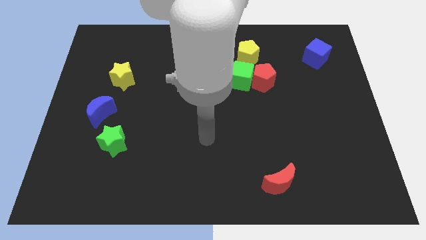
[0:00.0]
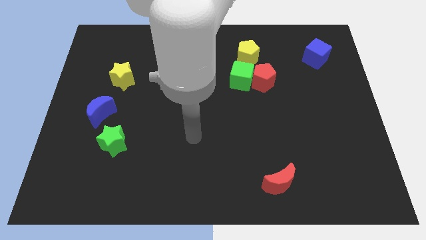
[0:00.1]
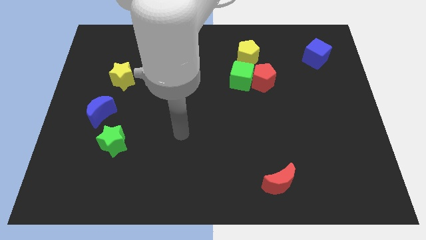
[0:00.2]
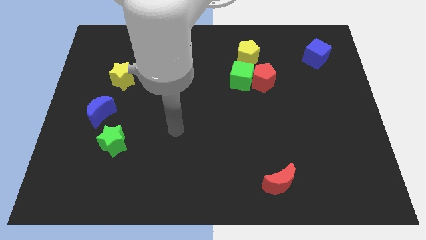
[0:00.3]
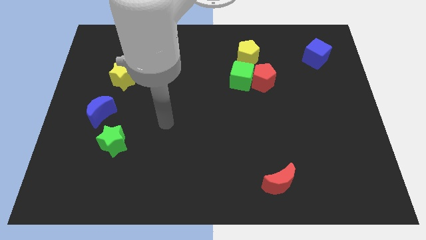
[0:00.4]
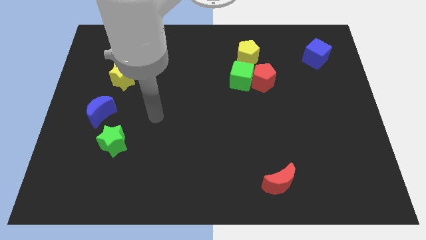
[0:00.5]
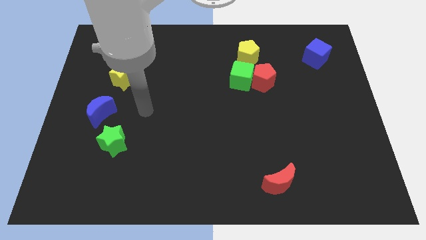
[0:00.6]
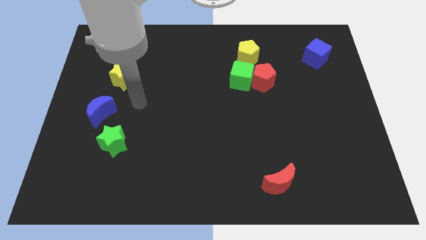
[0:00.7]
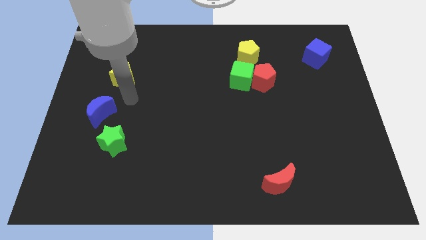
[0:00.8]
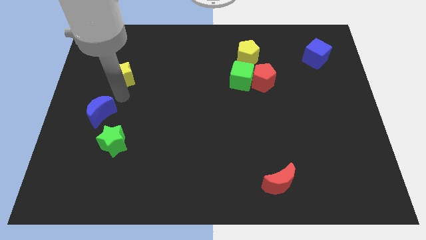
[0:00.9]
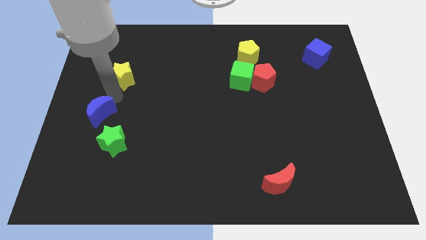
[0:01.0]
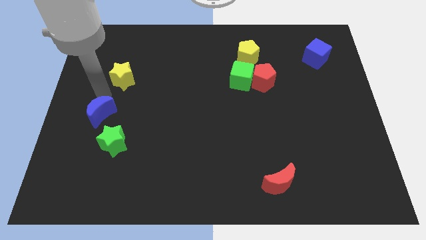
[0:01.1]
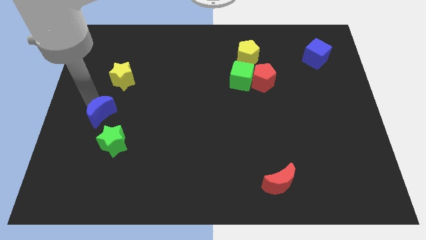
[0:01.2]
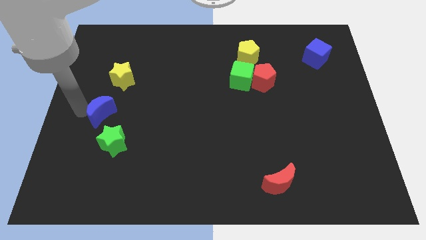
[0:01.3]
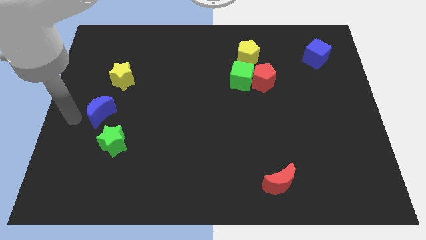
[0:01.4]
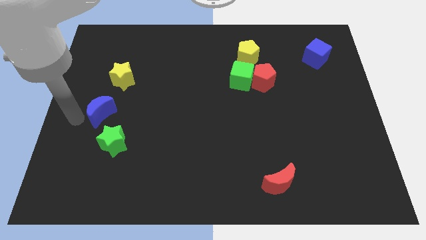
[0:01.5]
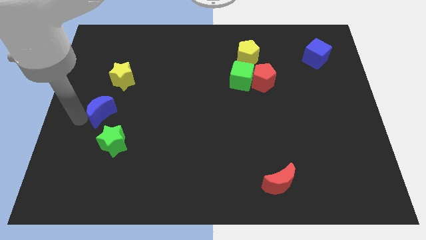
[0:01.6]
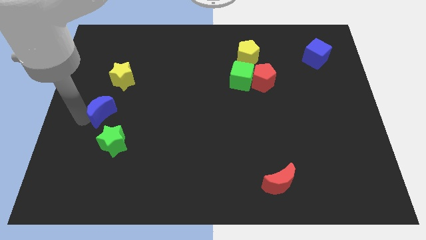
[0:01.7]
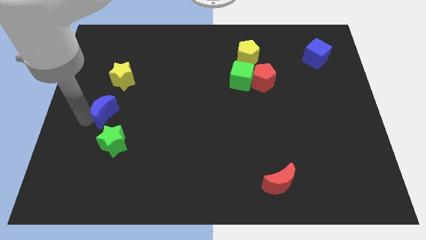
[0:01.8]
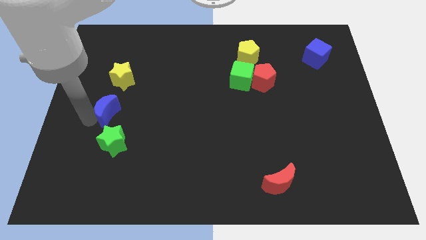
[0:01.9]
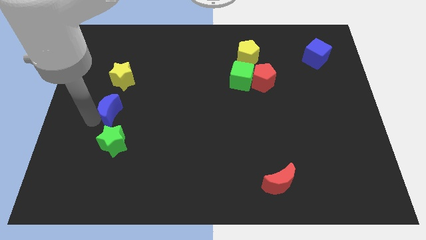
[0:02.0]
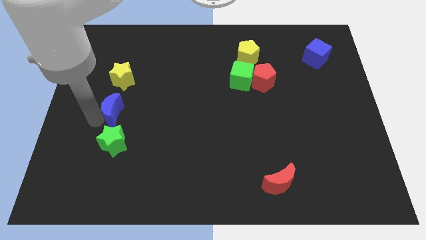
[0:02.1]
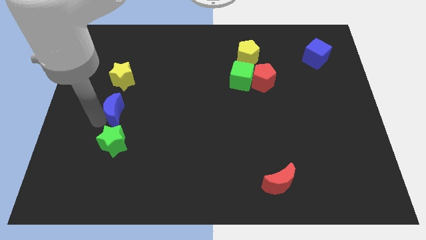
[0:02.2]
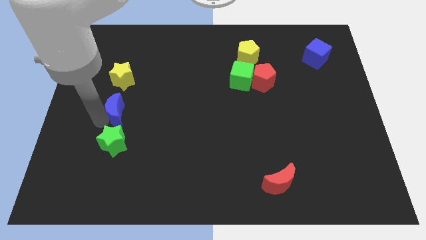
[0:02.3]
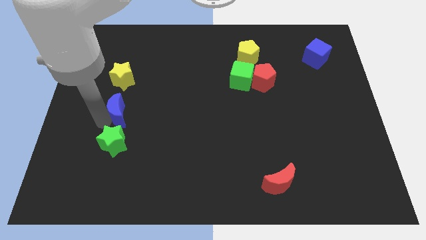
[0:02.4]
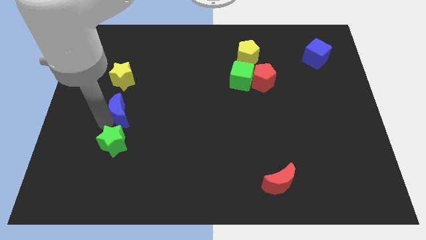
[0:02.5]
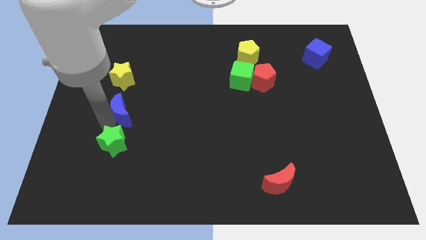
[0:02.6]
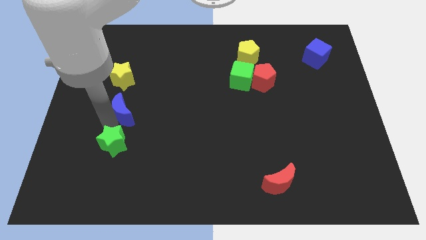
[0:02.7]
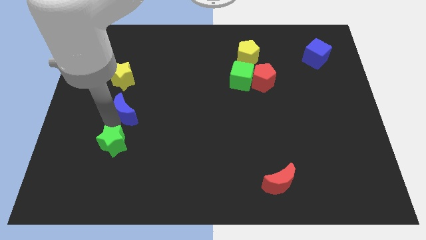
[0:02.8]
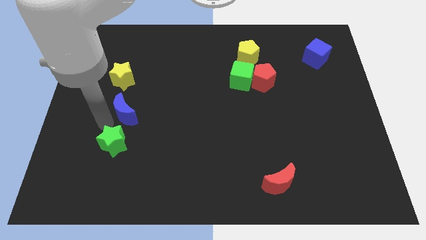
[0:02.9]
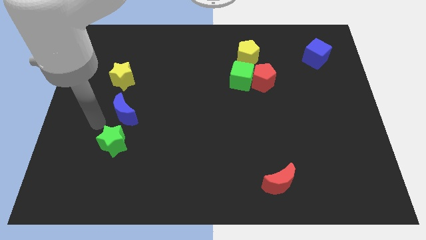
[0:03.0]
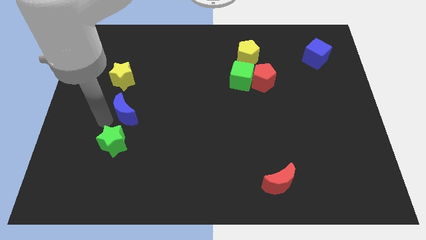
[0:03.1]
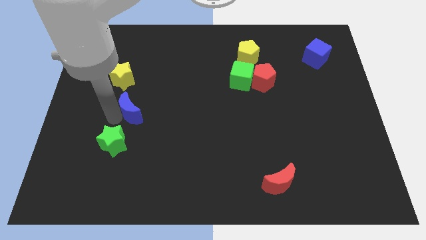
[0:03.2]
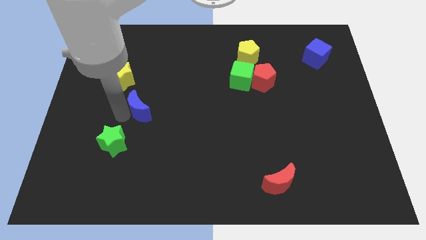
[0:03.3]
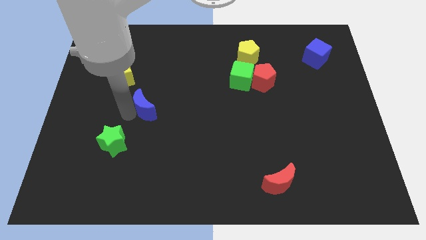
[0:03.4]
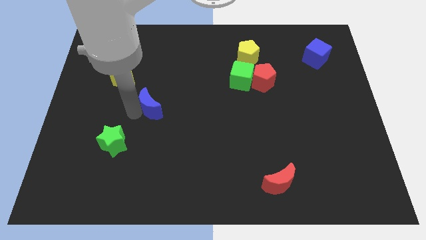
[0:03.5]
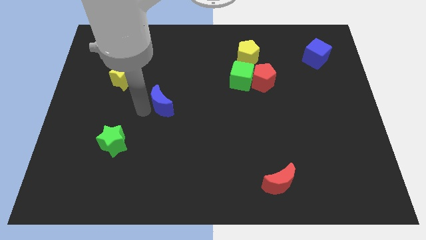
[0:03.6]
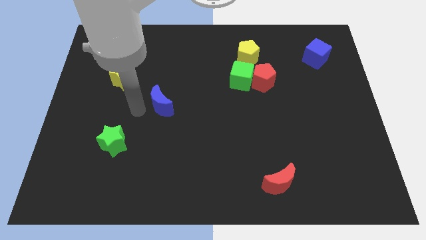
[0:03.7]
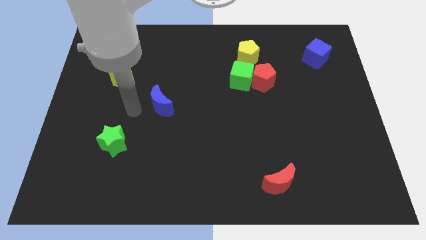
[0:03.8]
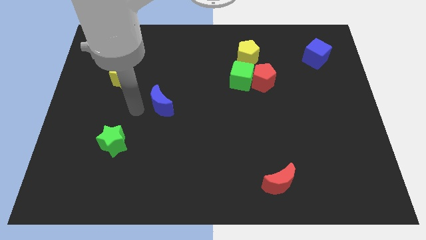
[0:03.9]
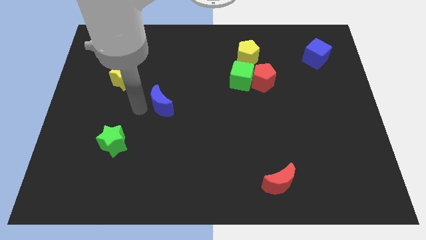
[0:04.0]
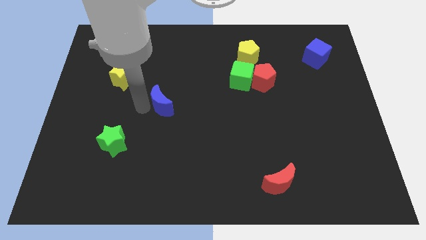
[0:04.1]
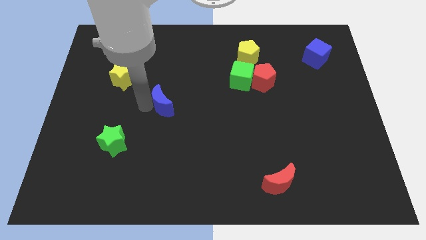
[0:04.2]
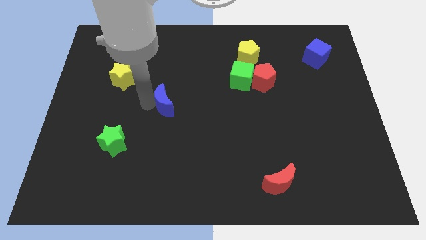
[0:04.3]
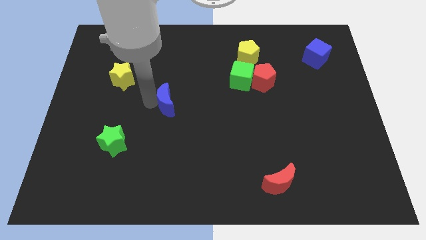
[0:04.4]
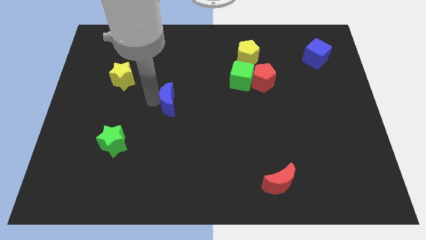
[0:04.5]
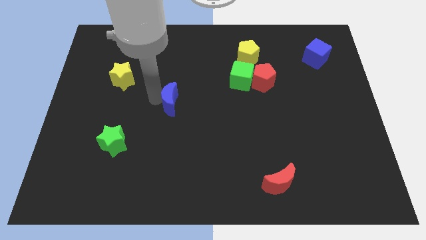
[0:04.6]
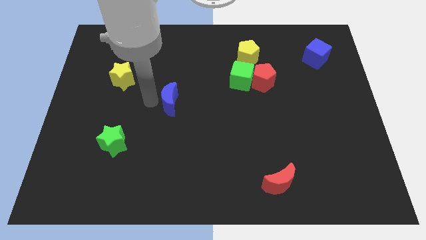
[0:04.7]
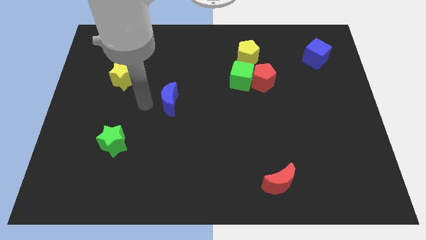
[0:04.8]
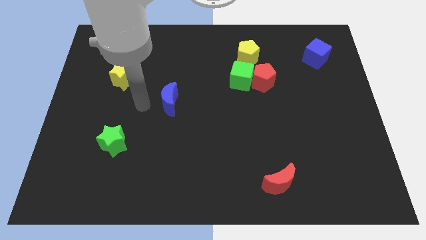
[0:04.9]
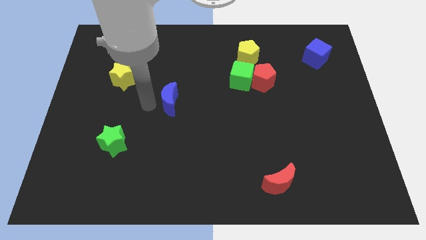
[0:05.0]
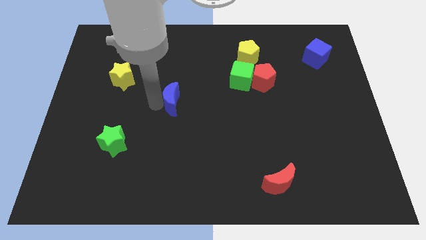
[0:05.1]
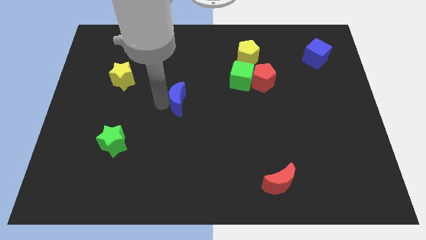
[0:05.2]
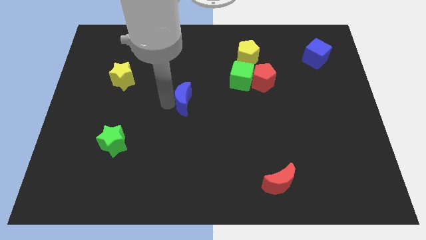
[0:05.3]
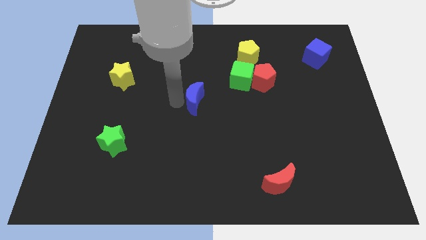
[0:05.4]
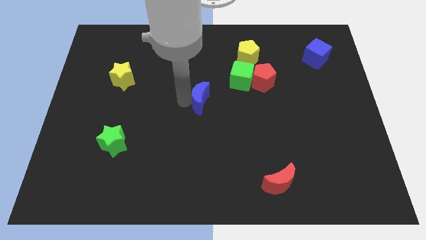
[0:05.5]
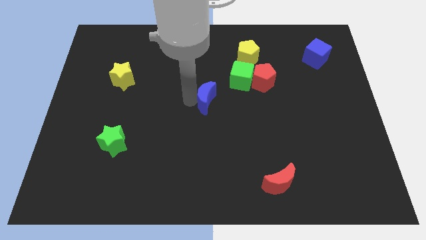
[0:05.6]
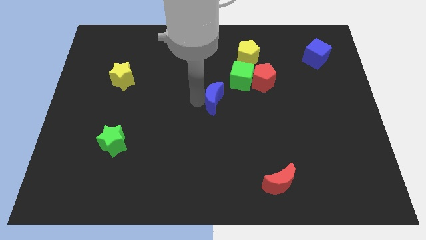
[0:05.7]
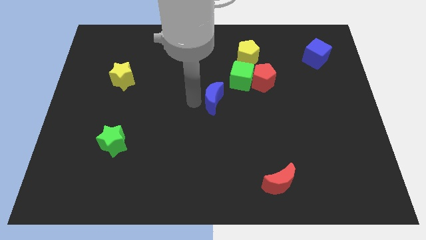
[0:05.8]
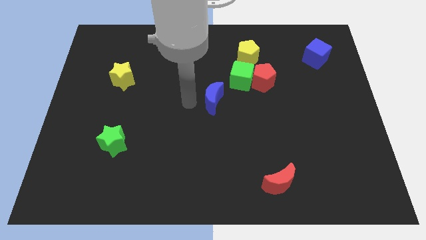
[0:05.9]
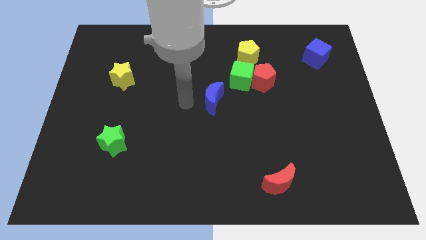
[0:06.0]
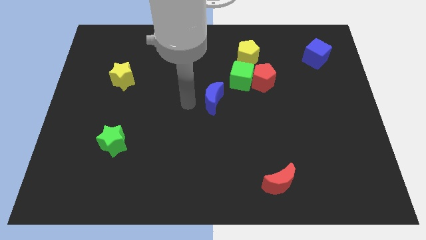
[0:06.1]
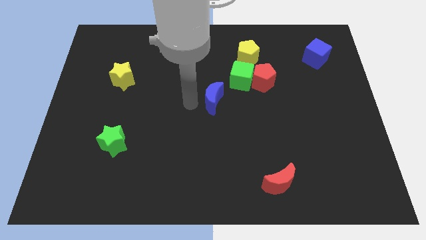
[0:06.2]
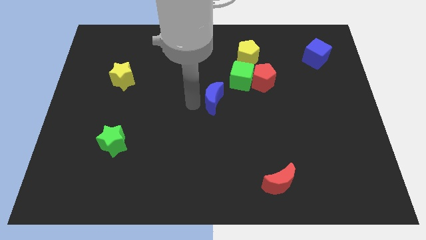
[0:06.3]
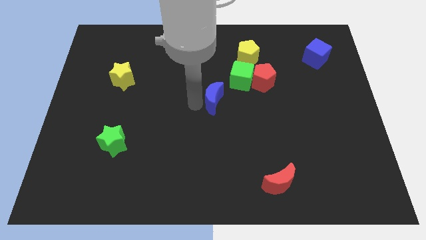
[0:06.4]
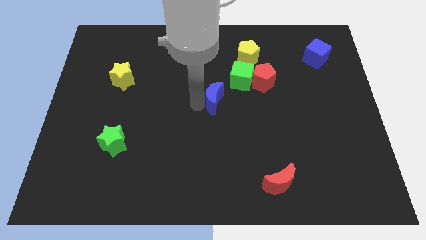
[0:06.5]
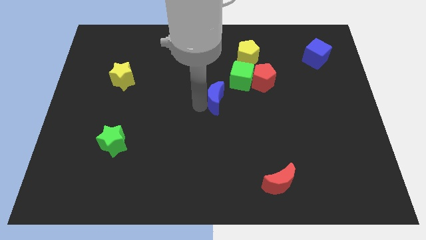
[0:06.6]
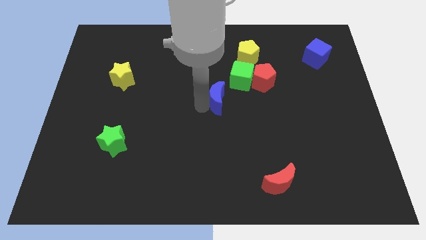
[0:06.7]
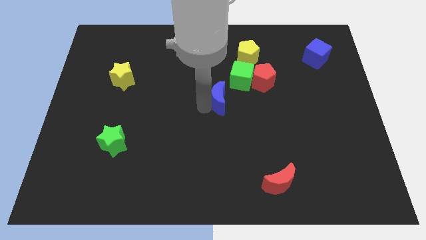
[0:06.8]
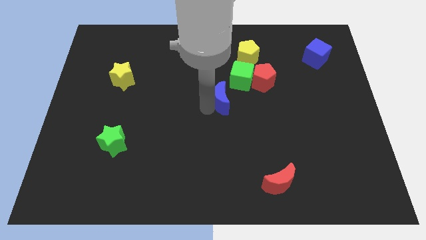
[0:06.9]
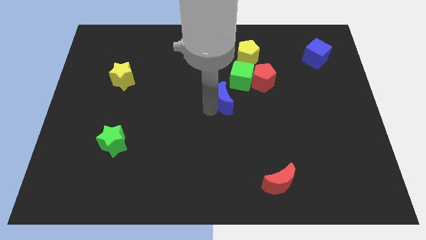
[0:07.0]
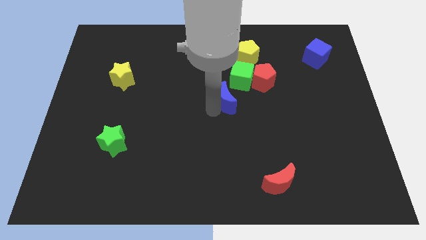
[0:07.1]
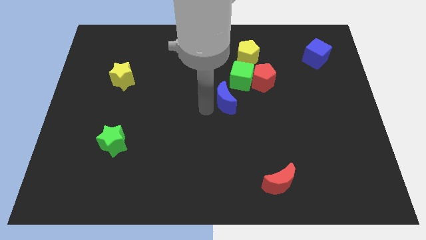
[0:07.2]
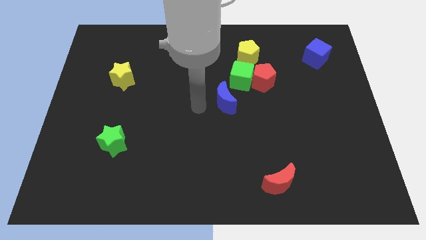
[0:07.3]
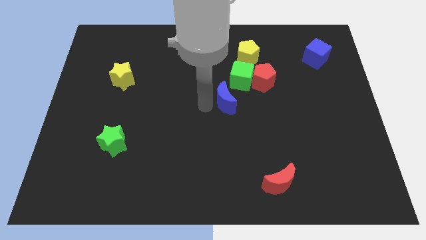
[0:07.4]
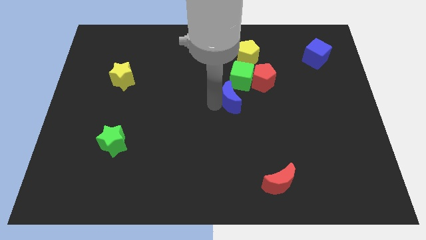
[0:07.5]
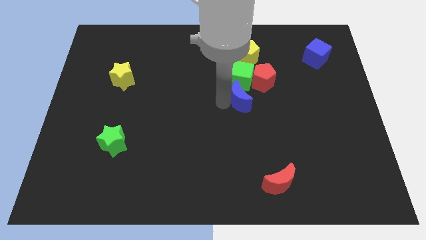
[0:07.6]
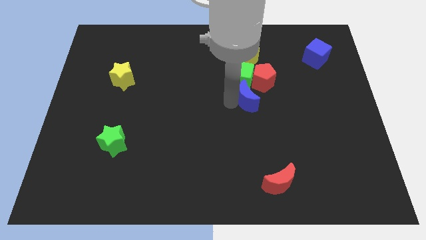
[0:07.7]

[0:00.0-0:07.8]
put the blue moon to the bottom right of the green cube
